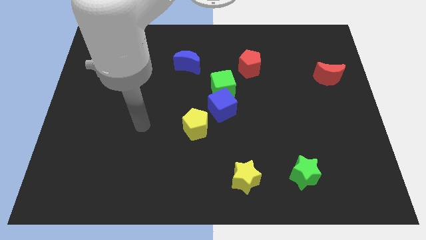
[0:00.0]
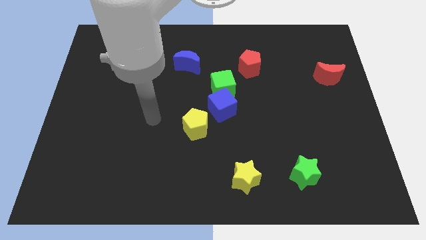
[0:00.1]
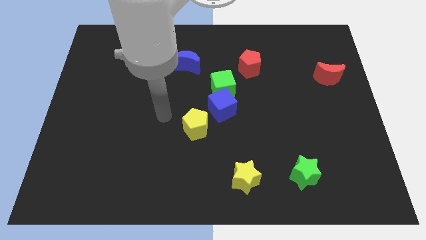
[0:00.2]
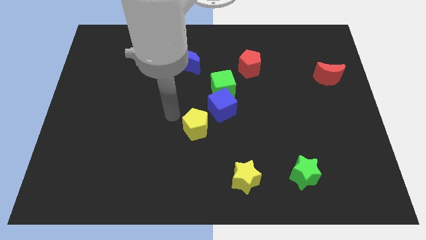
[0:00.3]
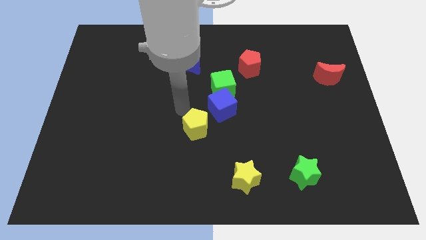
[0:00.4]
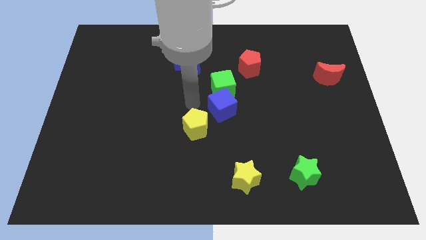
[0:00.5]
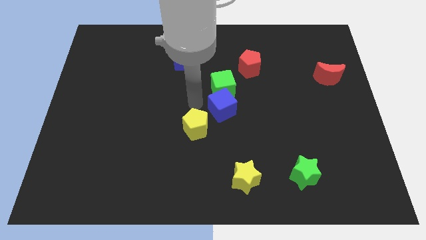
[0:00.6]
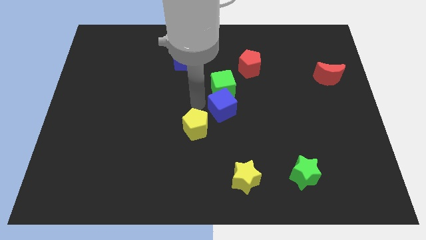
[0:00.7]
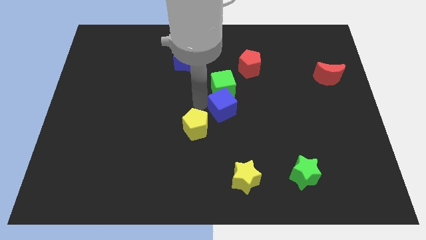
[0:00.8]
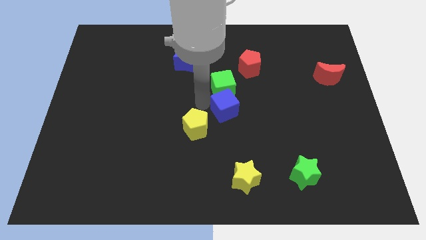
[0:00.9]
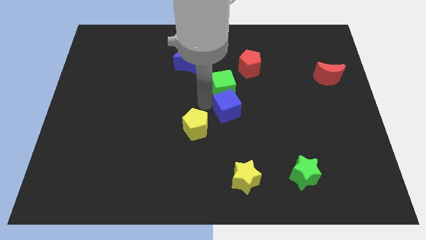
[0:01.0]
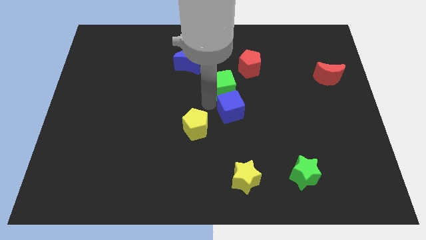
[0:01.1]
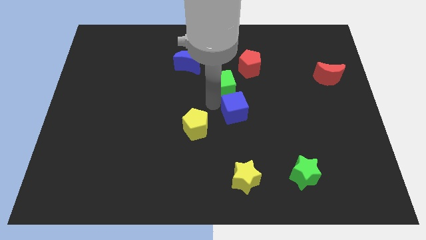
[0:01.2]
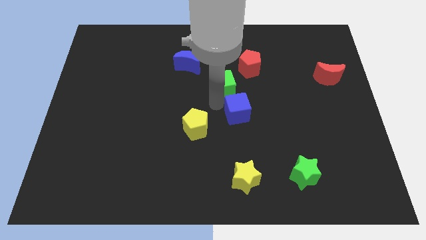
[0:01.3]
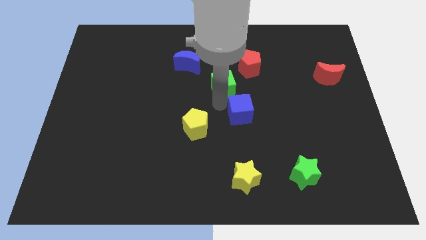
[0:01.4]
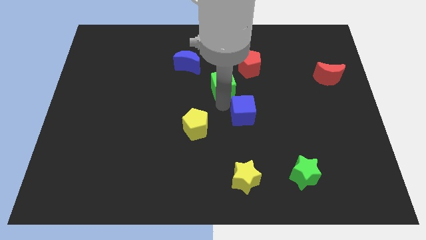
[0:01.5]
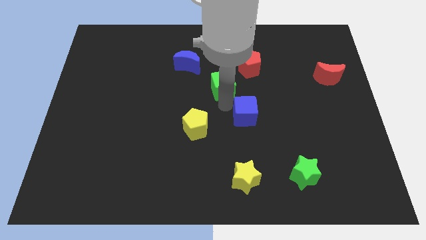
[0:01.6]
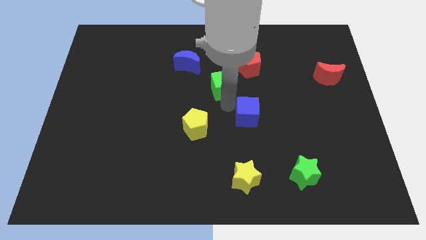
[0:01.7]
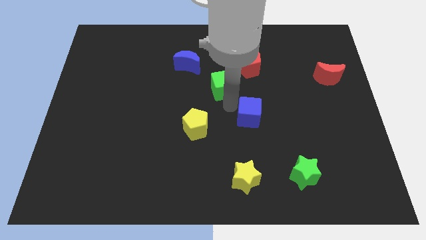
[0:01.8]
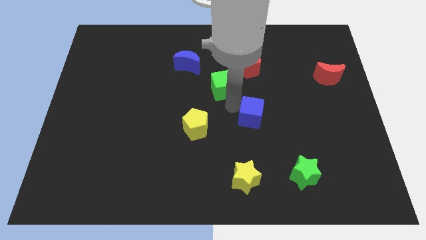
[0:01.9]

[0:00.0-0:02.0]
separate the blue cube from the green cube and yellow pentagon

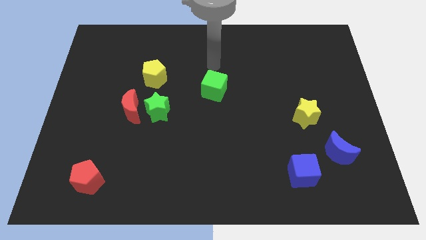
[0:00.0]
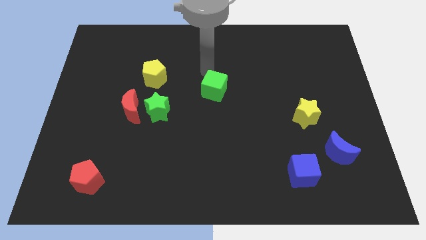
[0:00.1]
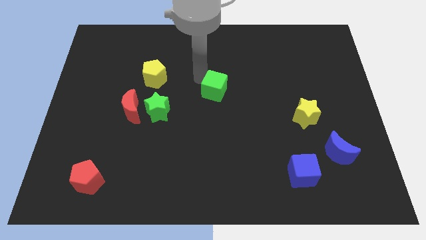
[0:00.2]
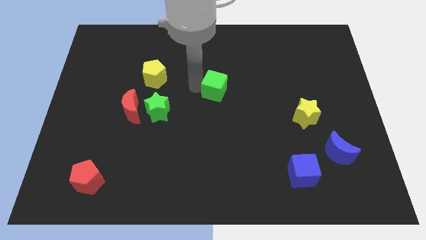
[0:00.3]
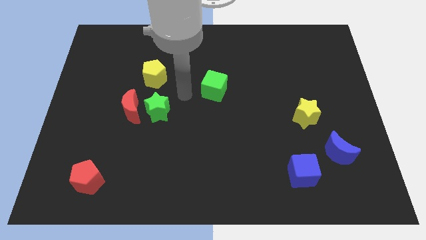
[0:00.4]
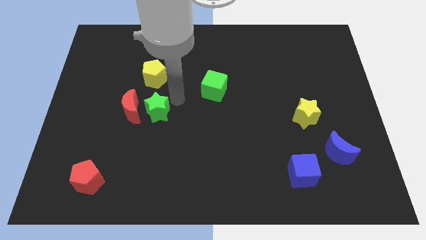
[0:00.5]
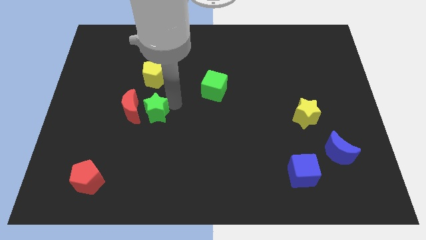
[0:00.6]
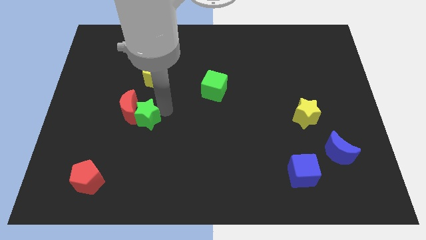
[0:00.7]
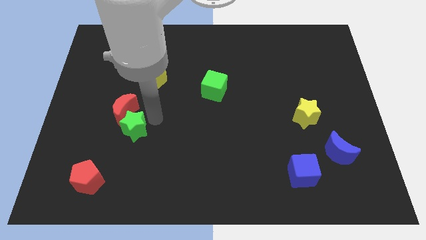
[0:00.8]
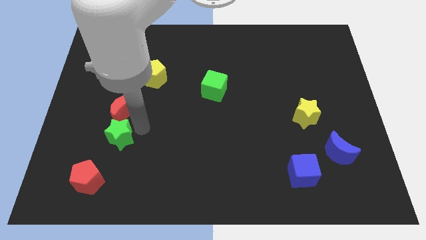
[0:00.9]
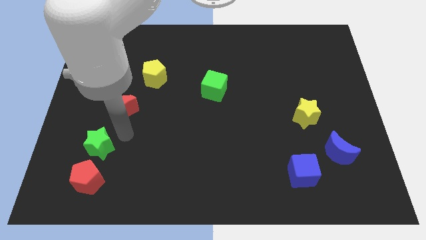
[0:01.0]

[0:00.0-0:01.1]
move the red moon away from the green star

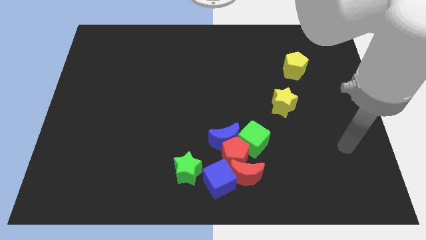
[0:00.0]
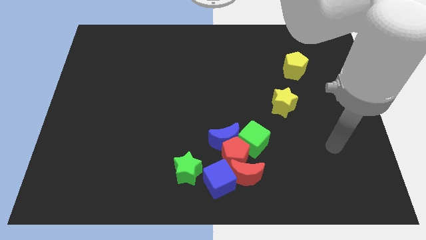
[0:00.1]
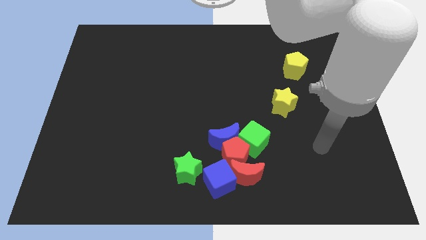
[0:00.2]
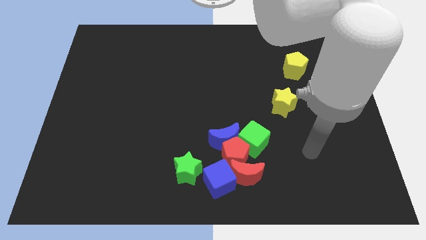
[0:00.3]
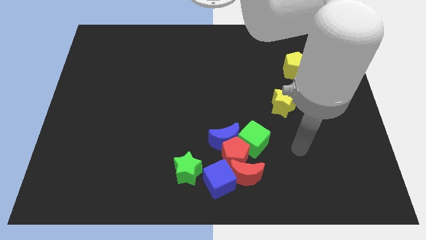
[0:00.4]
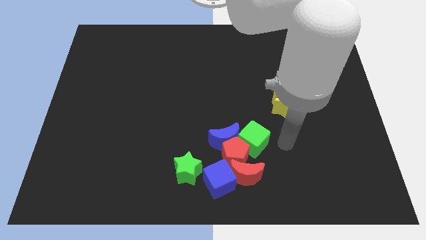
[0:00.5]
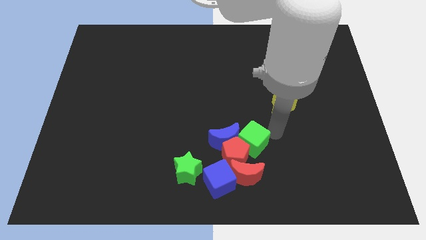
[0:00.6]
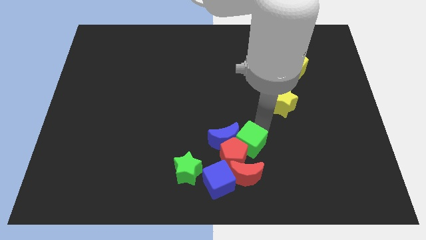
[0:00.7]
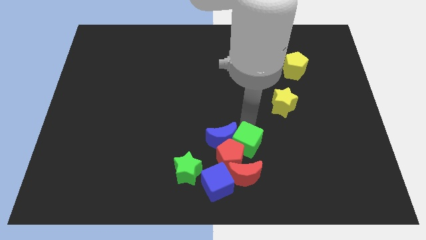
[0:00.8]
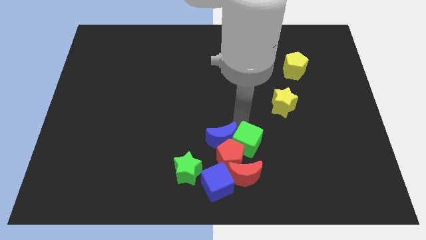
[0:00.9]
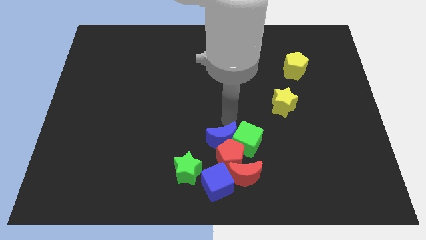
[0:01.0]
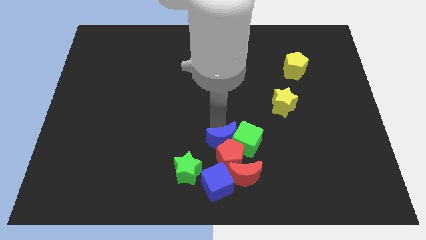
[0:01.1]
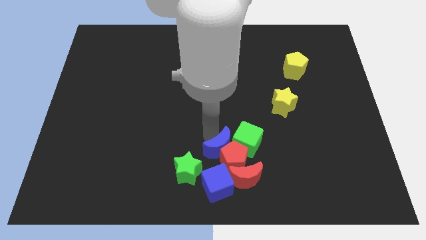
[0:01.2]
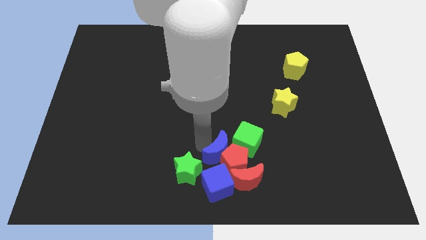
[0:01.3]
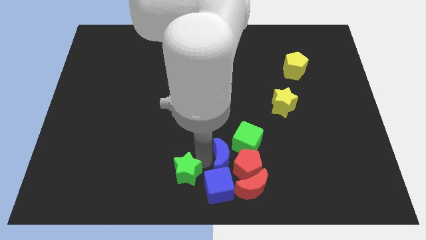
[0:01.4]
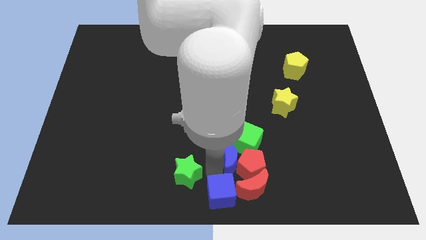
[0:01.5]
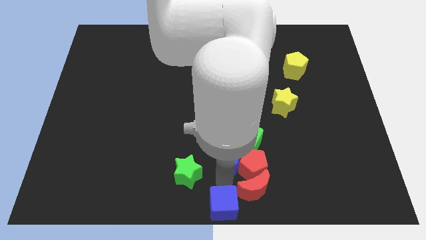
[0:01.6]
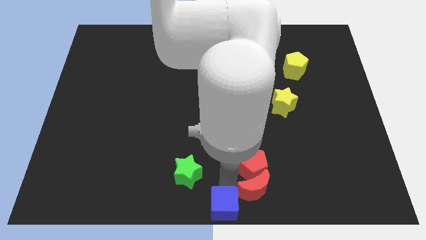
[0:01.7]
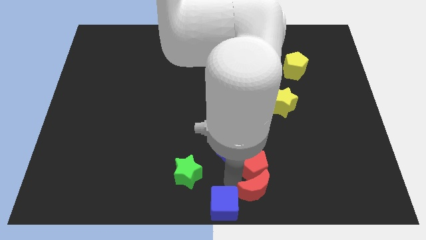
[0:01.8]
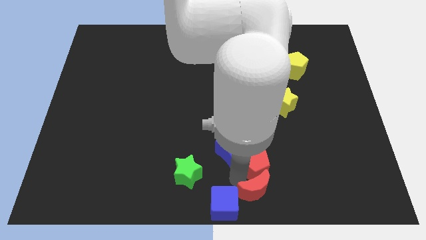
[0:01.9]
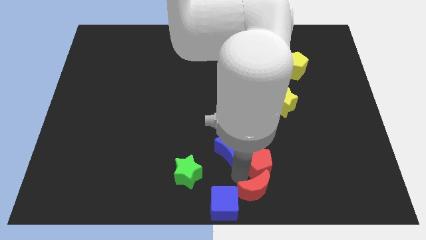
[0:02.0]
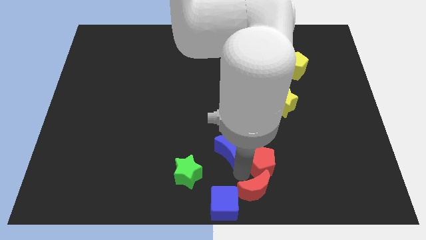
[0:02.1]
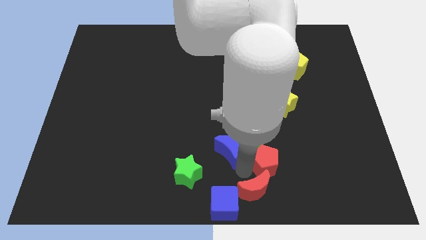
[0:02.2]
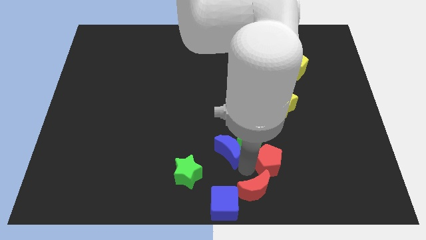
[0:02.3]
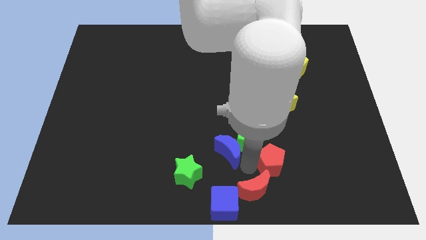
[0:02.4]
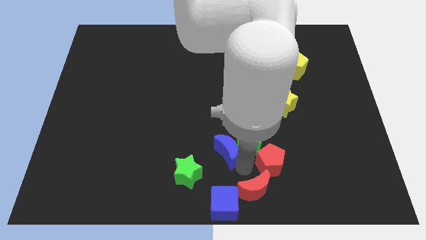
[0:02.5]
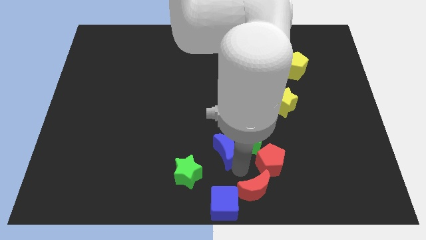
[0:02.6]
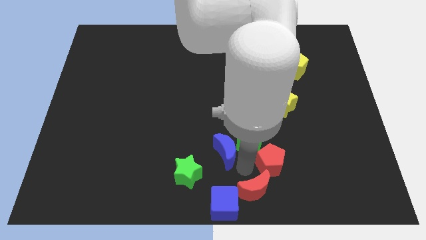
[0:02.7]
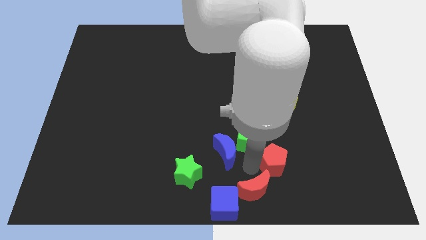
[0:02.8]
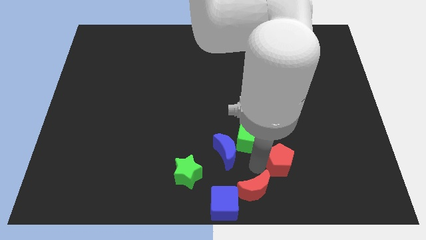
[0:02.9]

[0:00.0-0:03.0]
separate the red pentagon from the group

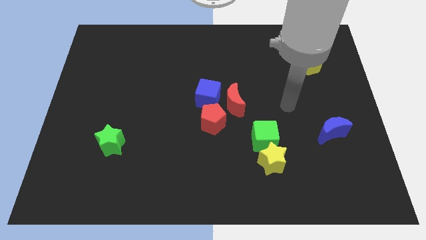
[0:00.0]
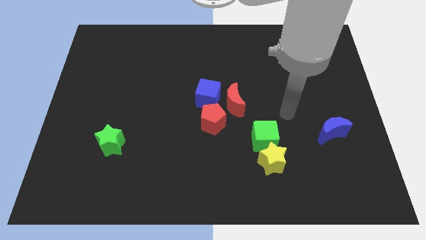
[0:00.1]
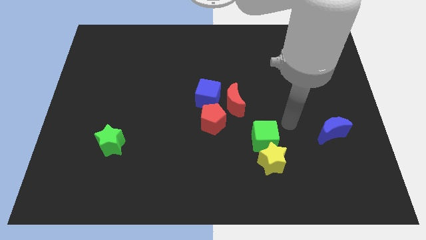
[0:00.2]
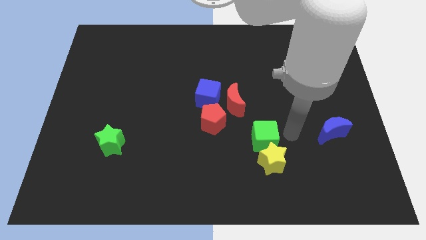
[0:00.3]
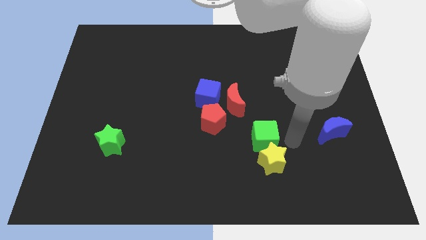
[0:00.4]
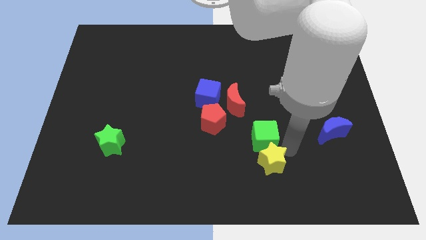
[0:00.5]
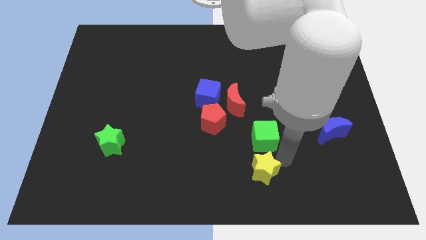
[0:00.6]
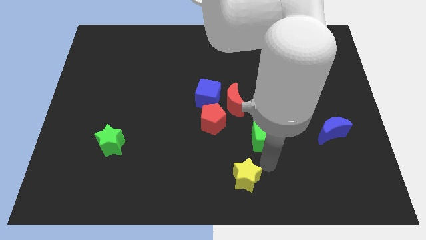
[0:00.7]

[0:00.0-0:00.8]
move the green cube away from the yellow star

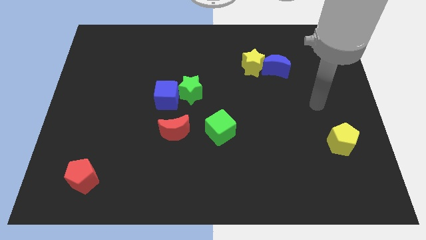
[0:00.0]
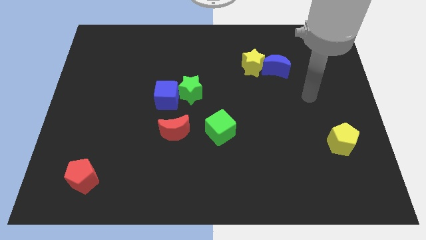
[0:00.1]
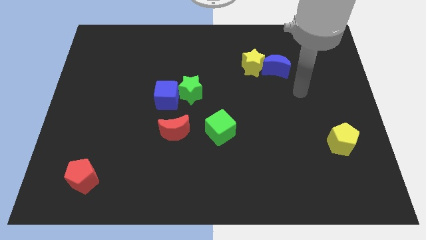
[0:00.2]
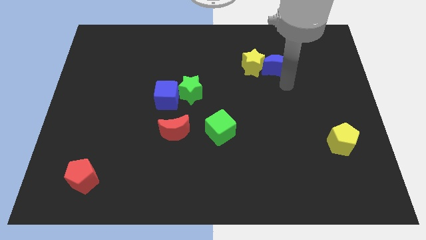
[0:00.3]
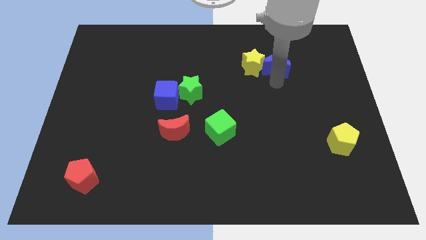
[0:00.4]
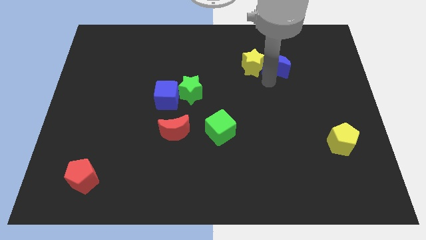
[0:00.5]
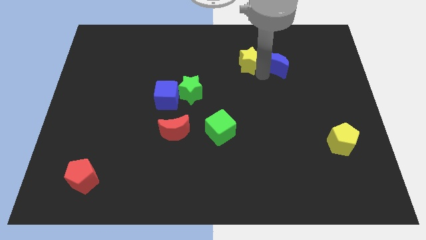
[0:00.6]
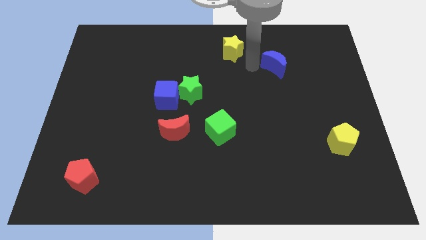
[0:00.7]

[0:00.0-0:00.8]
move the blue moon away from the yellow star

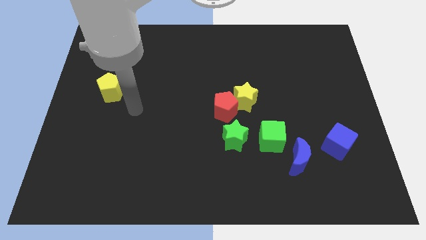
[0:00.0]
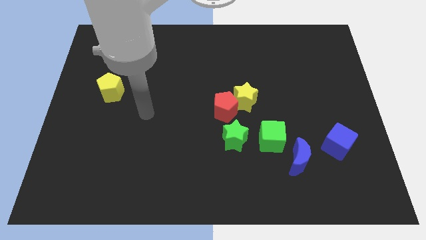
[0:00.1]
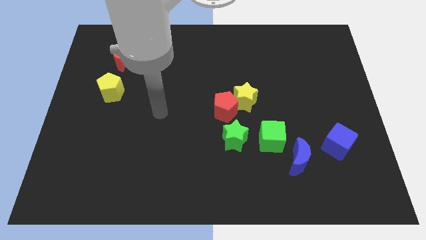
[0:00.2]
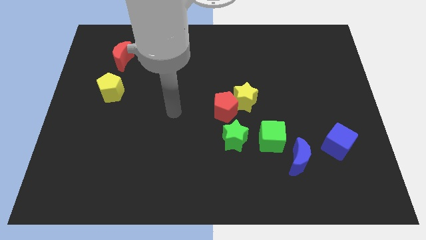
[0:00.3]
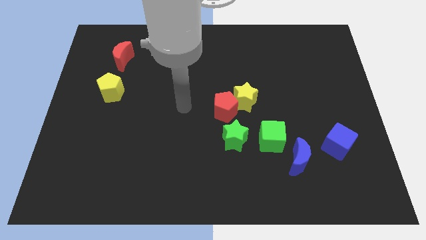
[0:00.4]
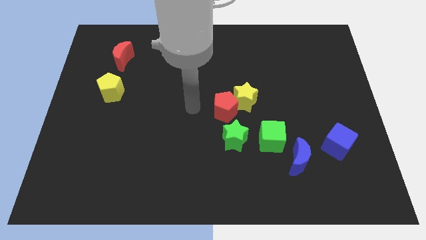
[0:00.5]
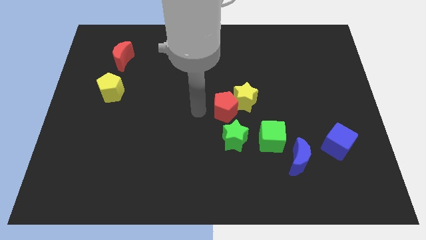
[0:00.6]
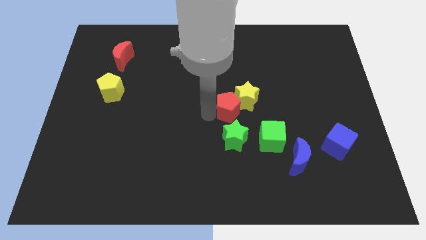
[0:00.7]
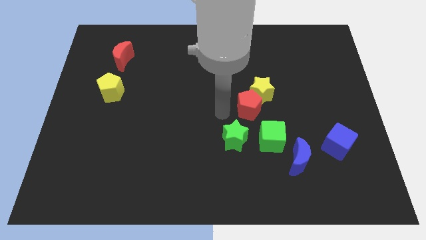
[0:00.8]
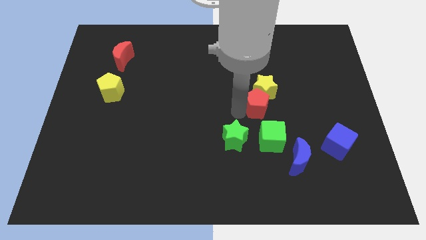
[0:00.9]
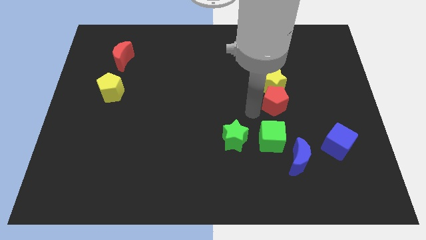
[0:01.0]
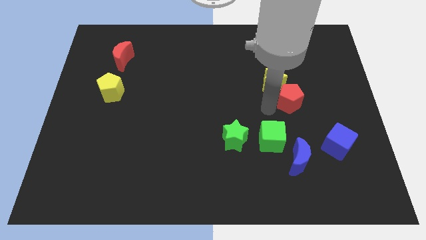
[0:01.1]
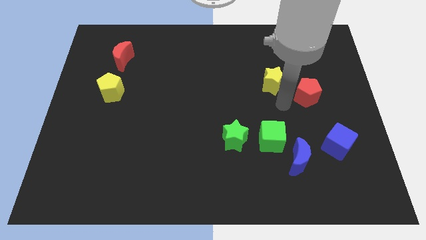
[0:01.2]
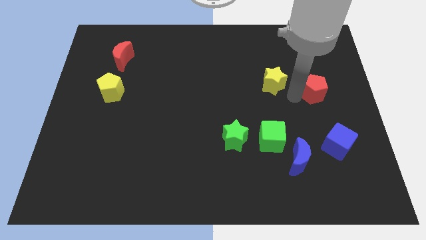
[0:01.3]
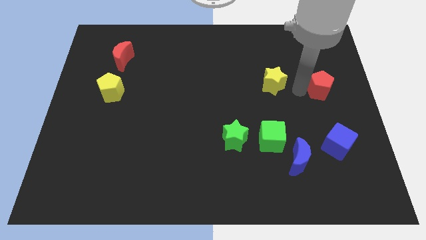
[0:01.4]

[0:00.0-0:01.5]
move the yellow star away from the red pentagon
